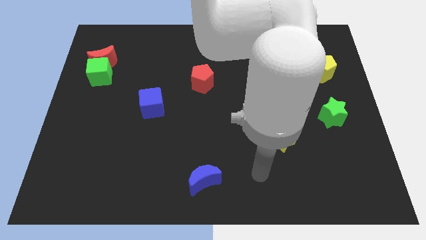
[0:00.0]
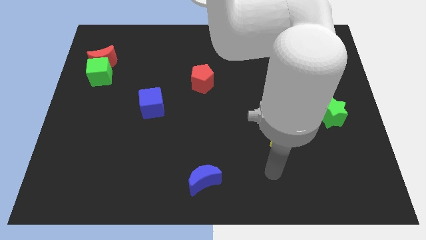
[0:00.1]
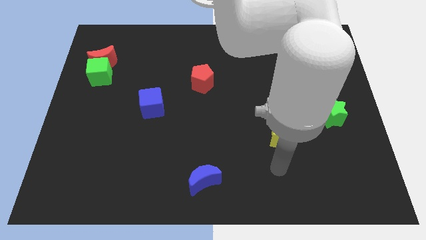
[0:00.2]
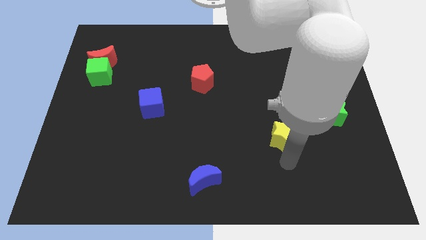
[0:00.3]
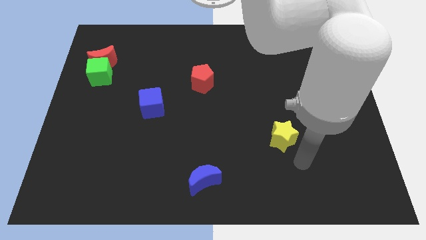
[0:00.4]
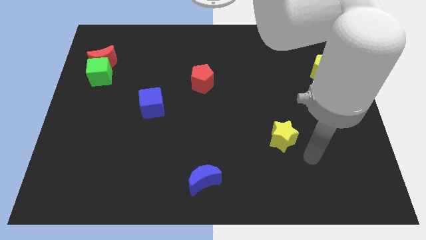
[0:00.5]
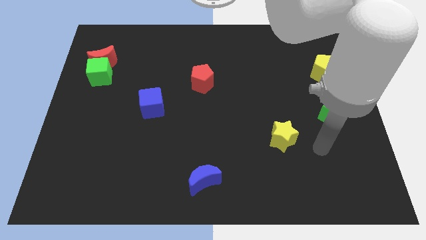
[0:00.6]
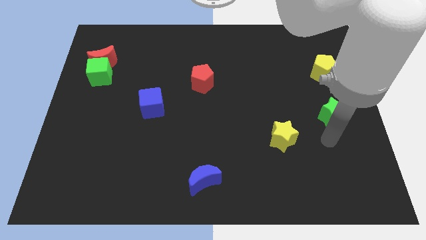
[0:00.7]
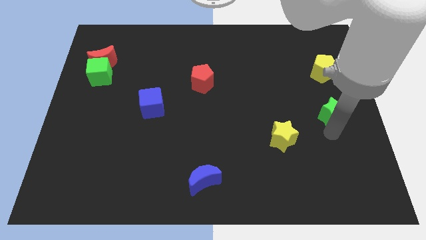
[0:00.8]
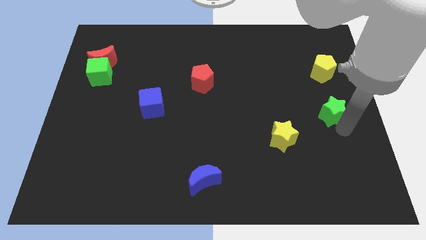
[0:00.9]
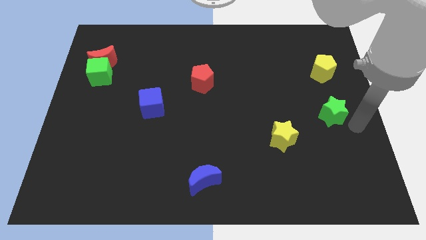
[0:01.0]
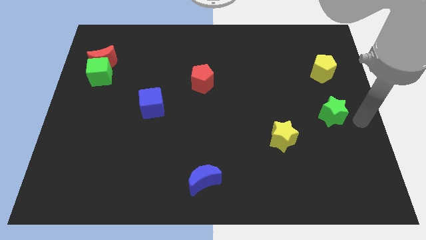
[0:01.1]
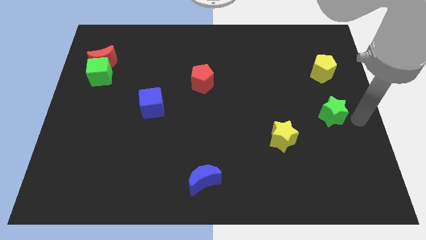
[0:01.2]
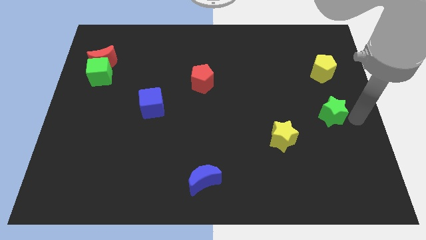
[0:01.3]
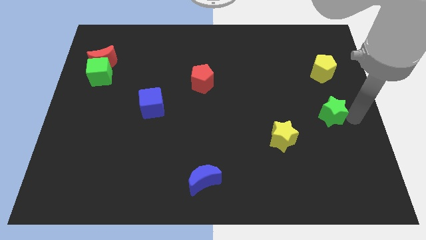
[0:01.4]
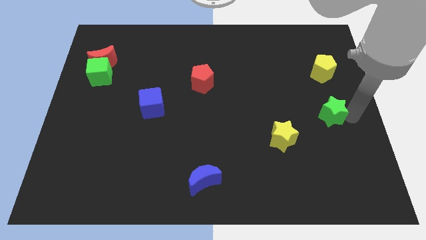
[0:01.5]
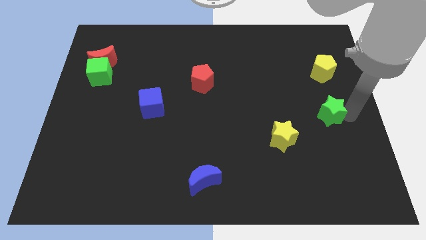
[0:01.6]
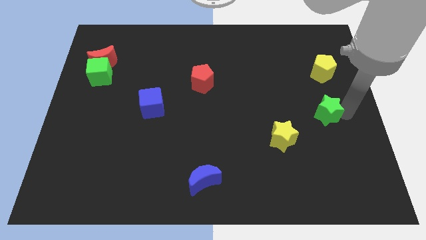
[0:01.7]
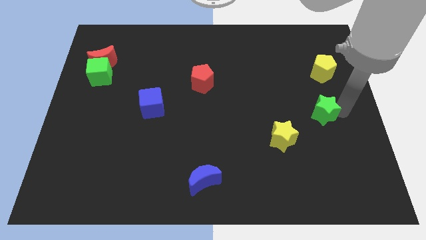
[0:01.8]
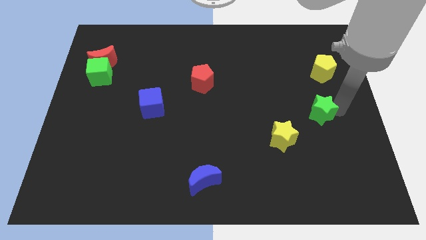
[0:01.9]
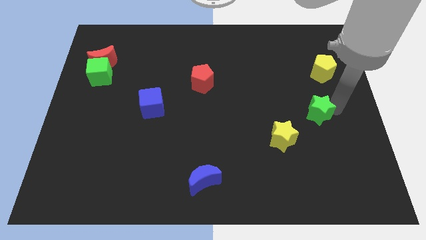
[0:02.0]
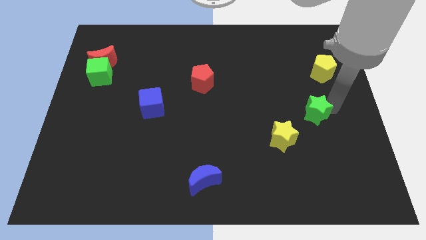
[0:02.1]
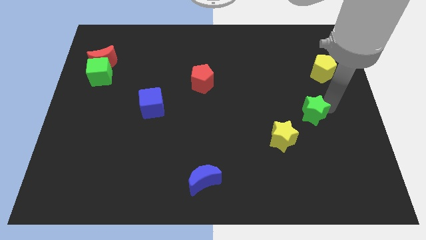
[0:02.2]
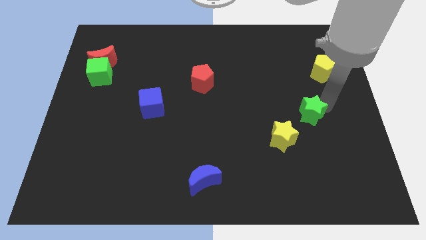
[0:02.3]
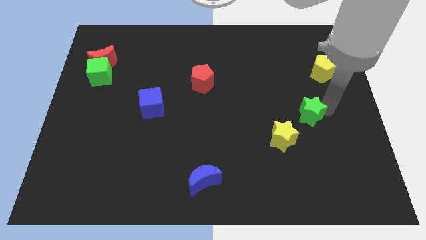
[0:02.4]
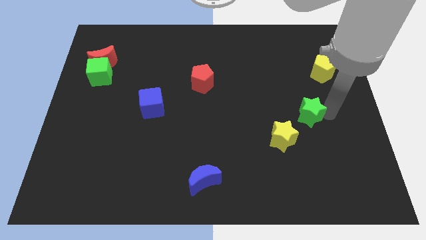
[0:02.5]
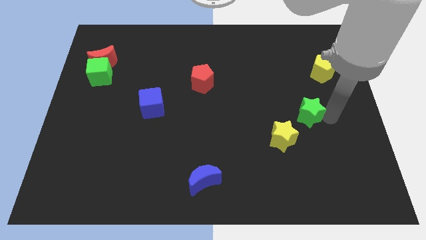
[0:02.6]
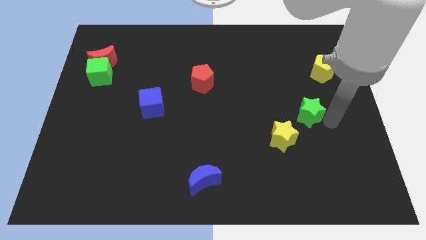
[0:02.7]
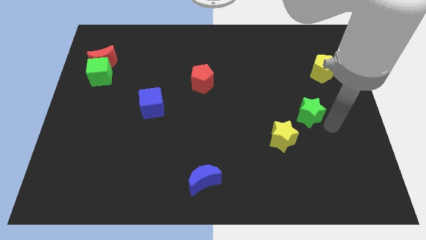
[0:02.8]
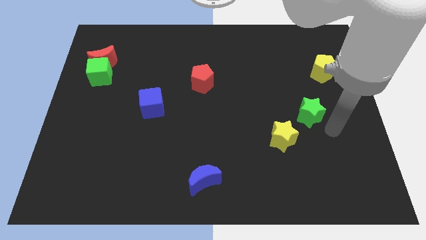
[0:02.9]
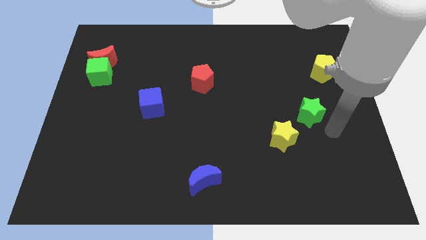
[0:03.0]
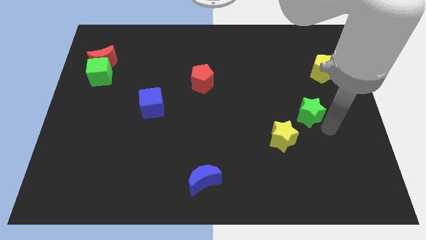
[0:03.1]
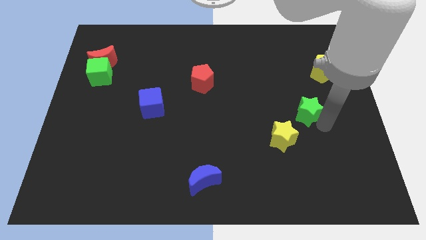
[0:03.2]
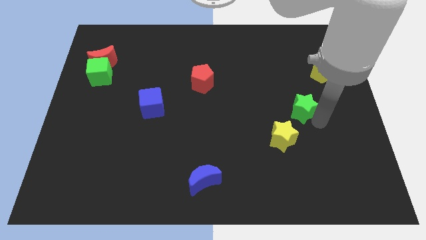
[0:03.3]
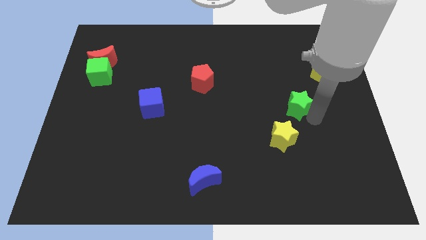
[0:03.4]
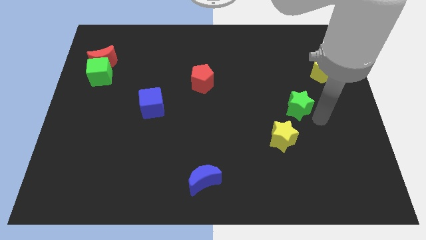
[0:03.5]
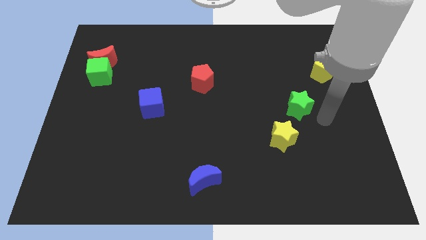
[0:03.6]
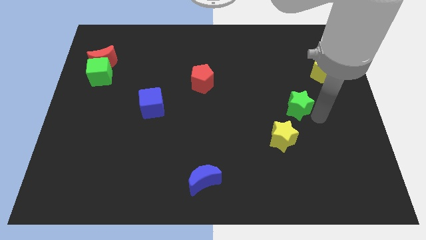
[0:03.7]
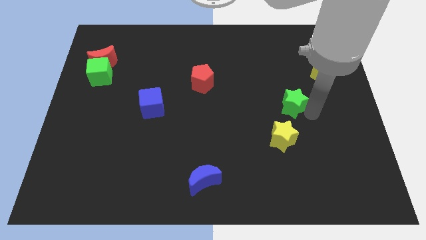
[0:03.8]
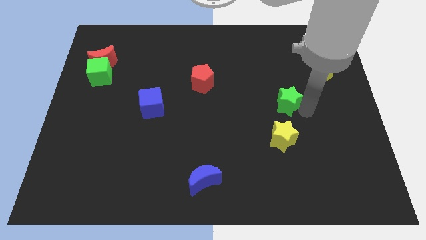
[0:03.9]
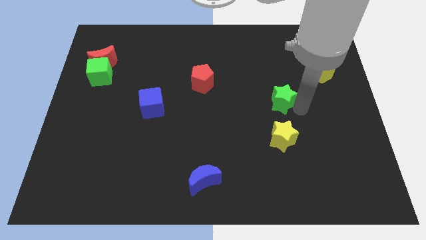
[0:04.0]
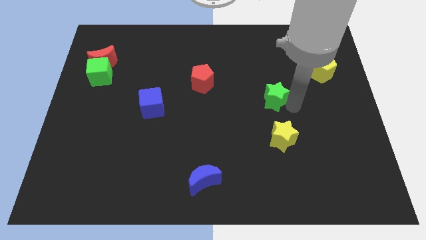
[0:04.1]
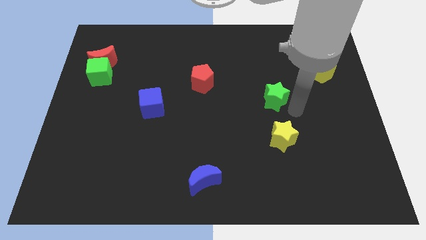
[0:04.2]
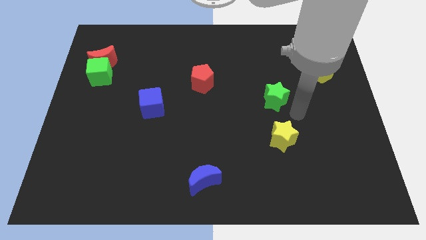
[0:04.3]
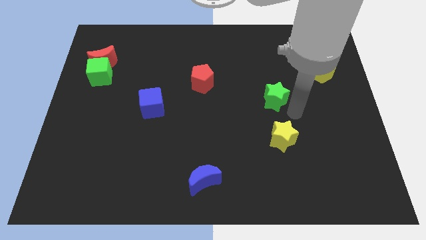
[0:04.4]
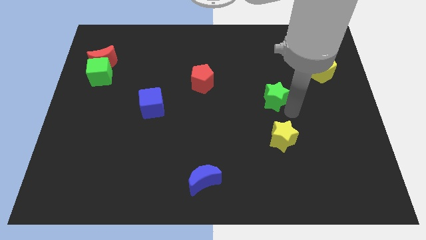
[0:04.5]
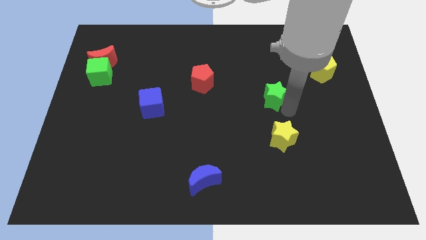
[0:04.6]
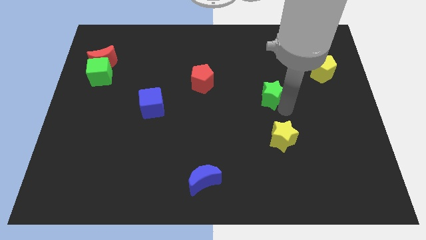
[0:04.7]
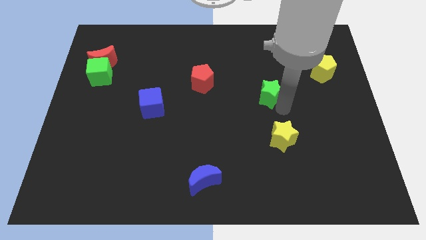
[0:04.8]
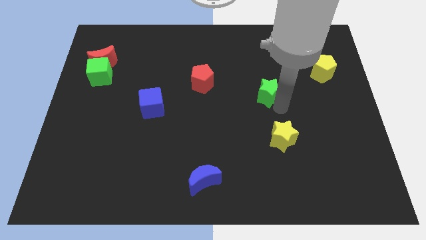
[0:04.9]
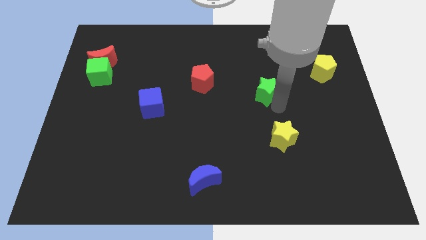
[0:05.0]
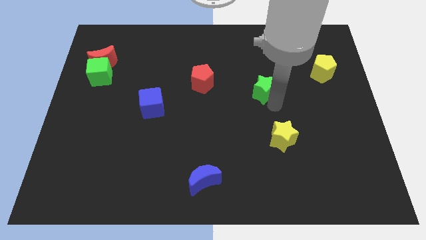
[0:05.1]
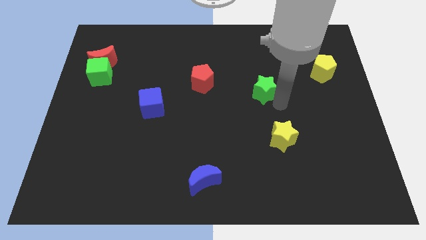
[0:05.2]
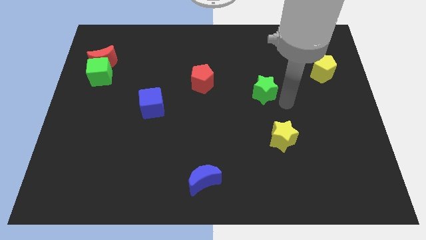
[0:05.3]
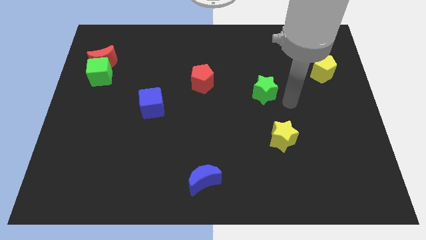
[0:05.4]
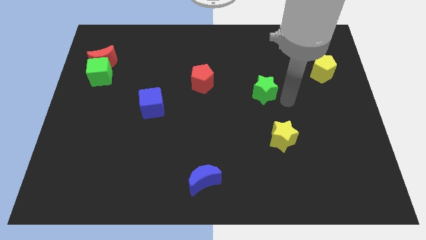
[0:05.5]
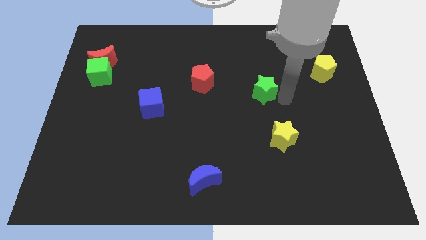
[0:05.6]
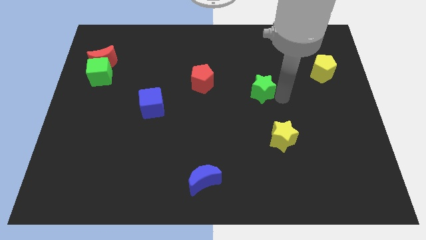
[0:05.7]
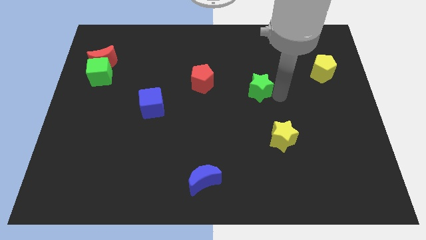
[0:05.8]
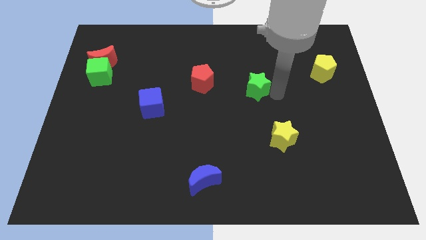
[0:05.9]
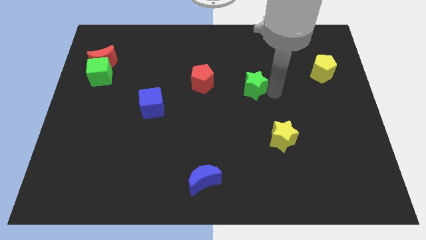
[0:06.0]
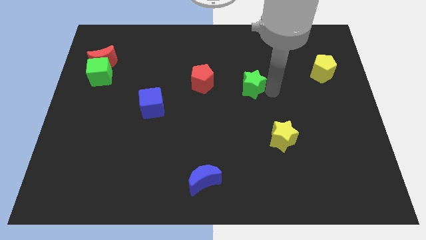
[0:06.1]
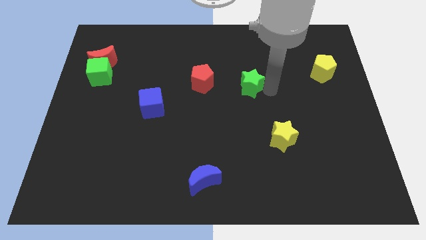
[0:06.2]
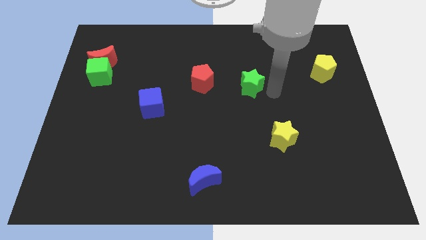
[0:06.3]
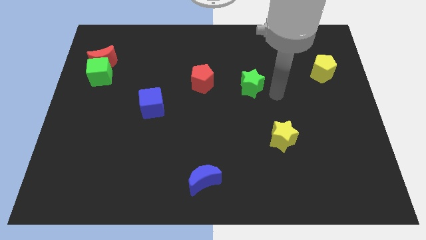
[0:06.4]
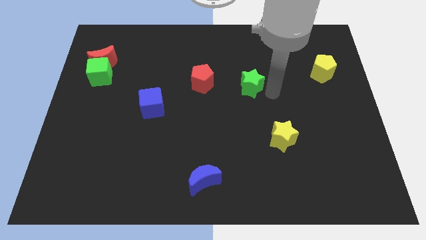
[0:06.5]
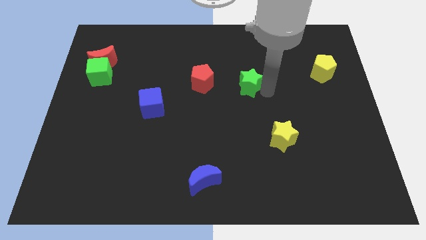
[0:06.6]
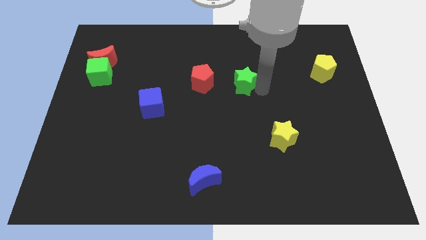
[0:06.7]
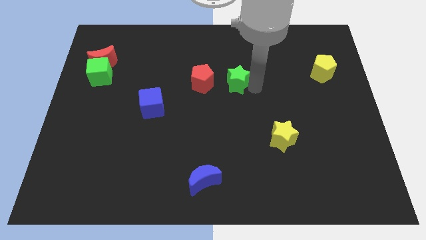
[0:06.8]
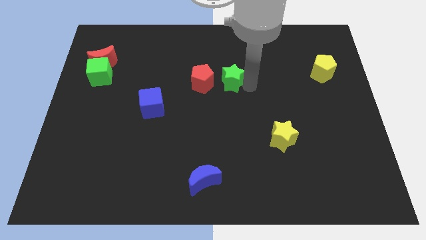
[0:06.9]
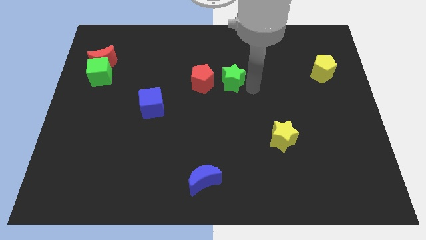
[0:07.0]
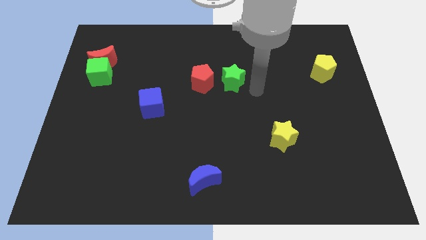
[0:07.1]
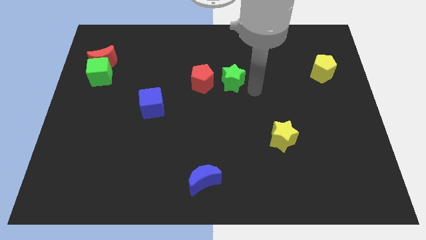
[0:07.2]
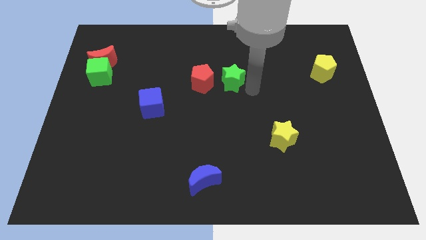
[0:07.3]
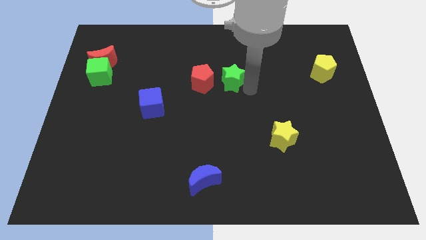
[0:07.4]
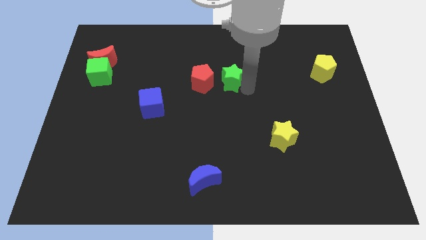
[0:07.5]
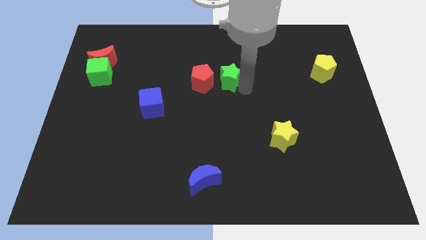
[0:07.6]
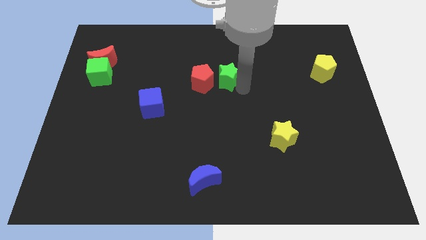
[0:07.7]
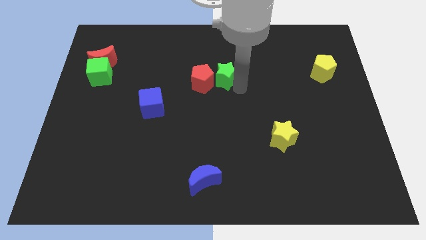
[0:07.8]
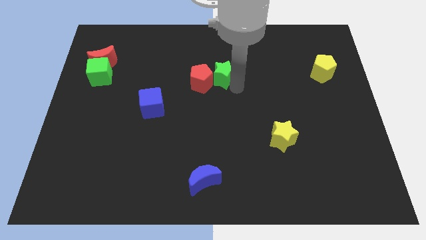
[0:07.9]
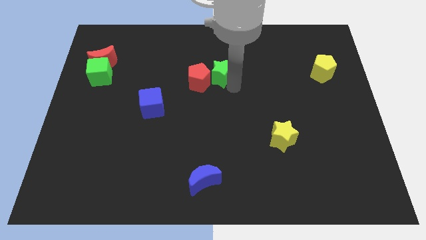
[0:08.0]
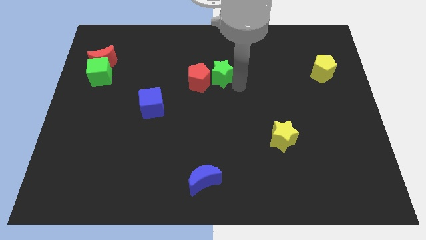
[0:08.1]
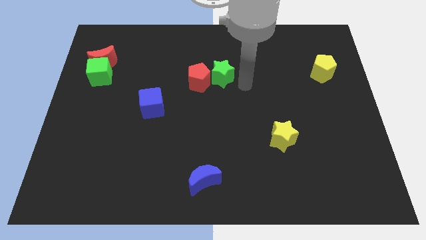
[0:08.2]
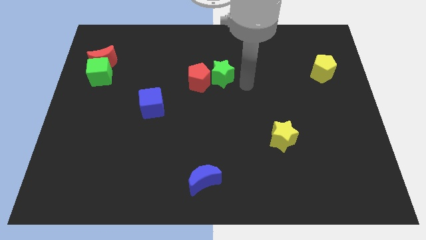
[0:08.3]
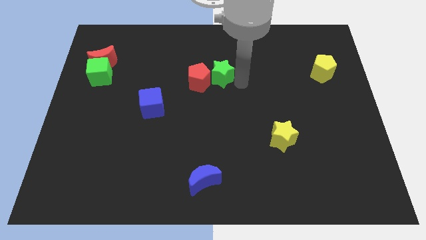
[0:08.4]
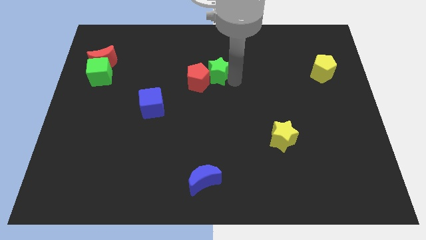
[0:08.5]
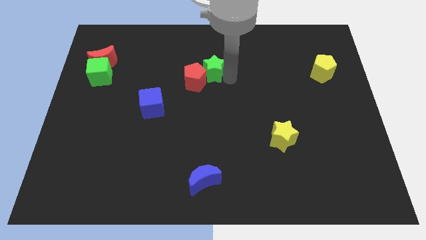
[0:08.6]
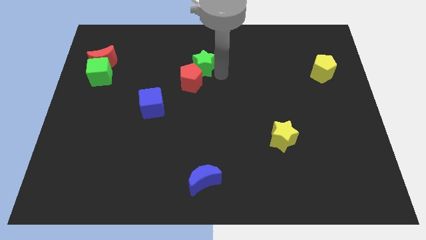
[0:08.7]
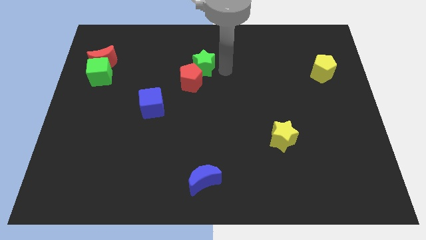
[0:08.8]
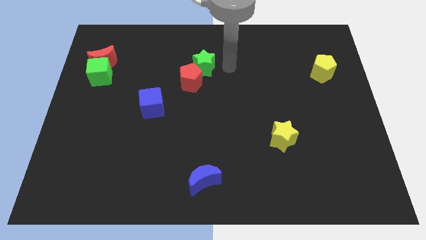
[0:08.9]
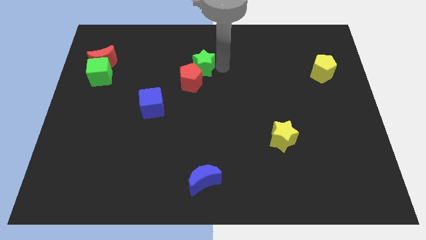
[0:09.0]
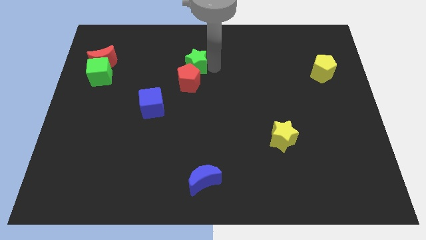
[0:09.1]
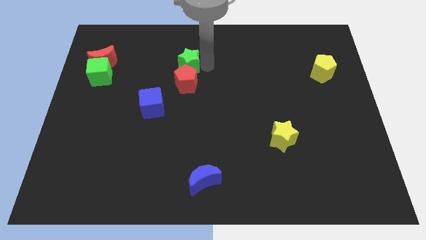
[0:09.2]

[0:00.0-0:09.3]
put the green star to the top left of the red pentagon
